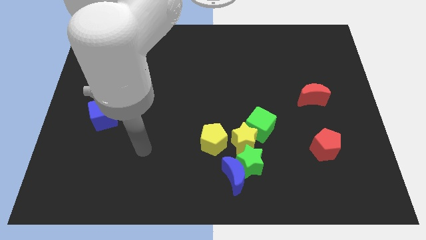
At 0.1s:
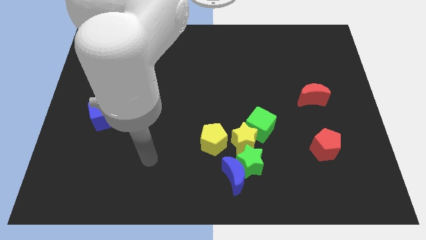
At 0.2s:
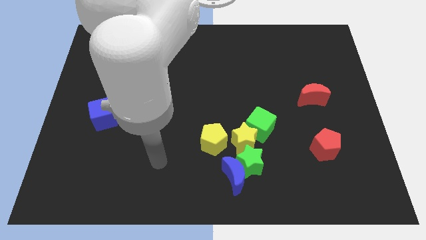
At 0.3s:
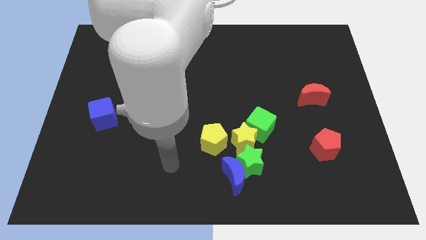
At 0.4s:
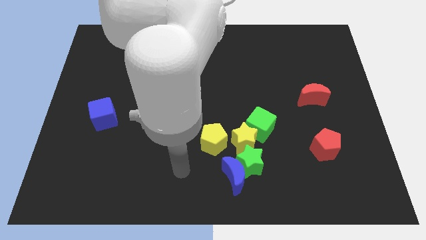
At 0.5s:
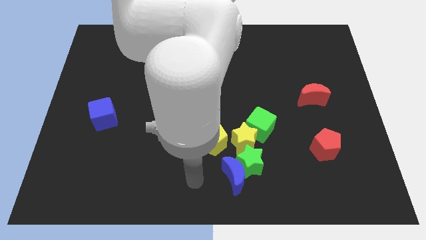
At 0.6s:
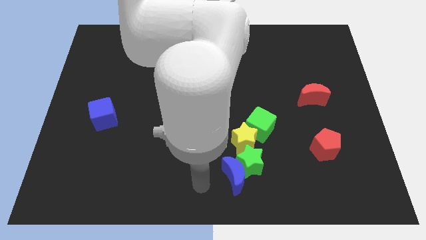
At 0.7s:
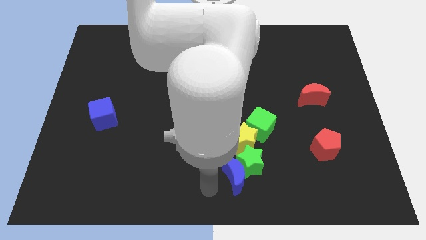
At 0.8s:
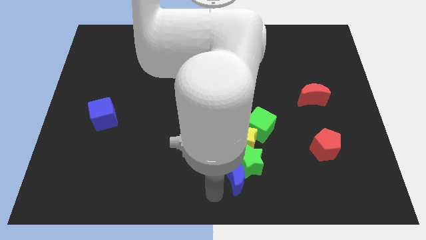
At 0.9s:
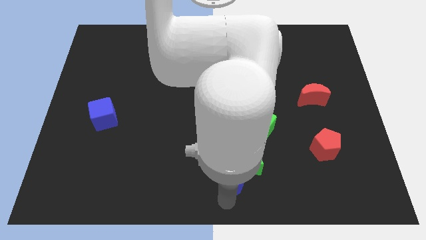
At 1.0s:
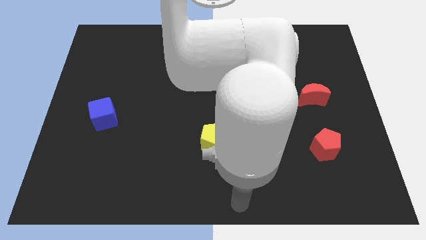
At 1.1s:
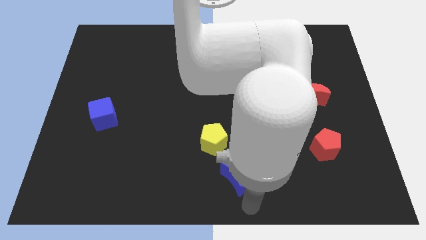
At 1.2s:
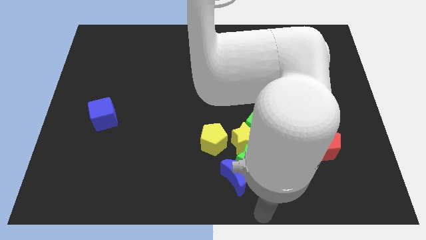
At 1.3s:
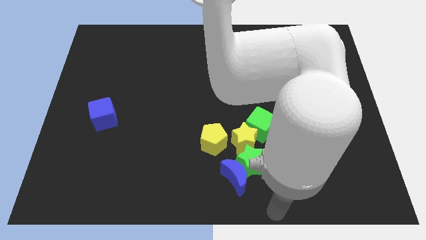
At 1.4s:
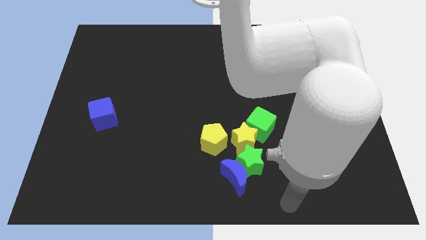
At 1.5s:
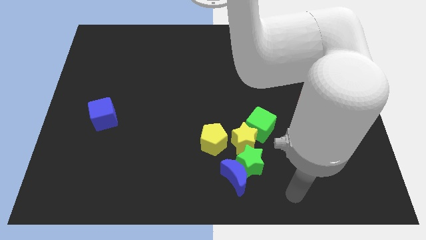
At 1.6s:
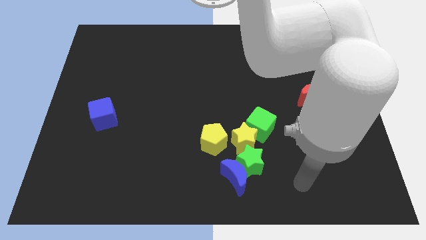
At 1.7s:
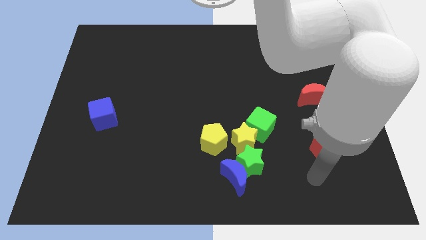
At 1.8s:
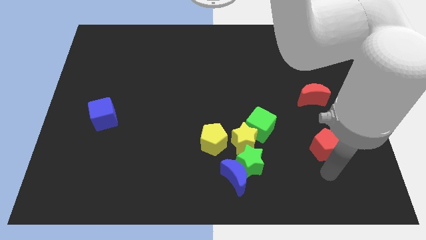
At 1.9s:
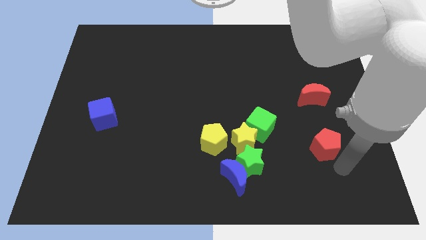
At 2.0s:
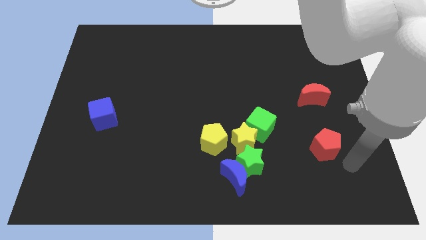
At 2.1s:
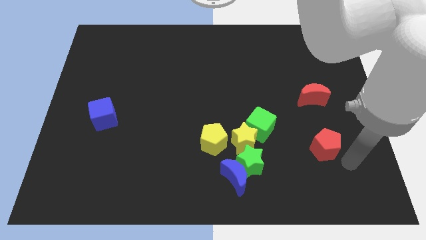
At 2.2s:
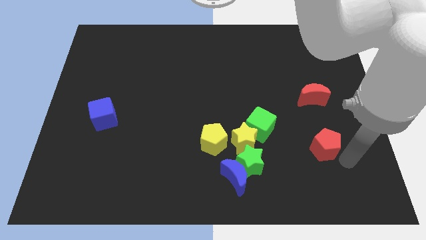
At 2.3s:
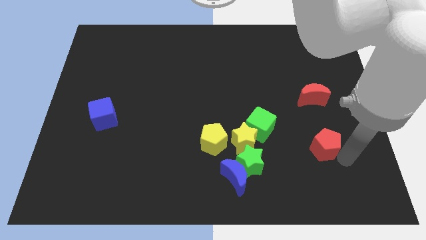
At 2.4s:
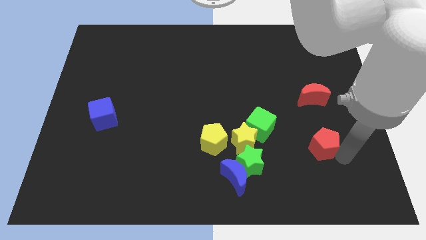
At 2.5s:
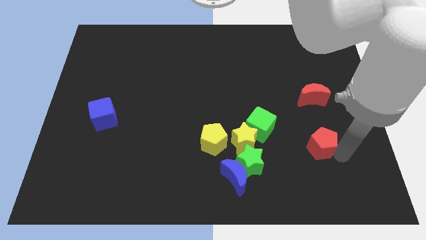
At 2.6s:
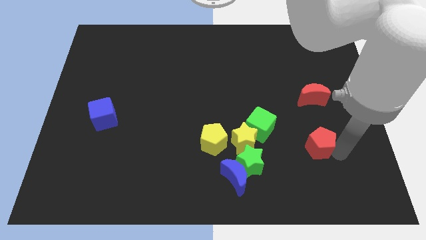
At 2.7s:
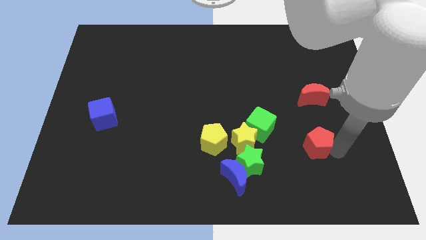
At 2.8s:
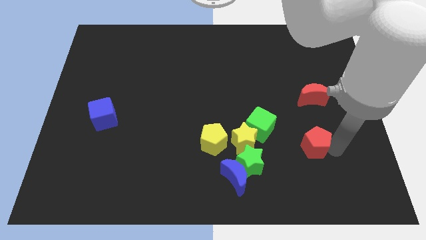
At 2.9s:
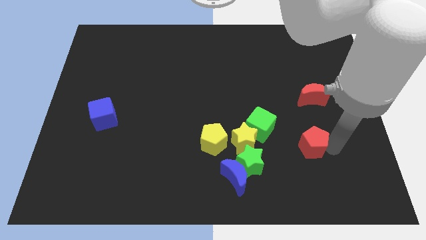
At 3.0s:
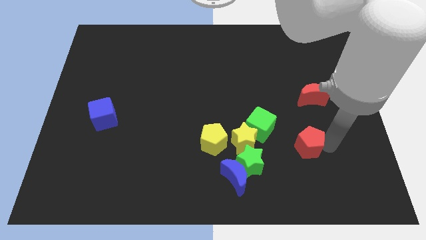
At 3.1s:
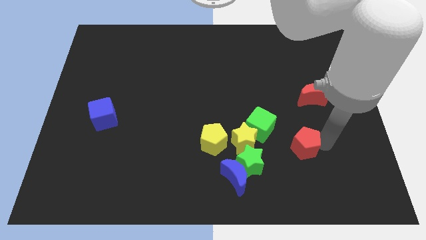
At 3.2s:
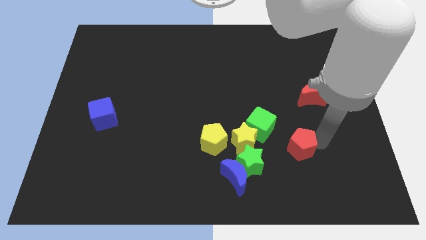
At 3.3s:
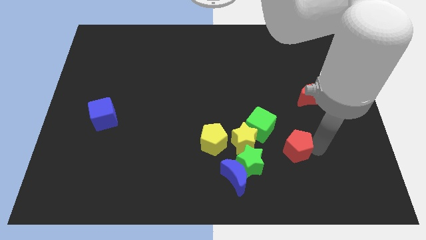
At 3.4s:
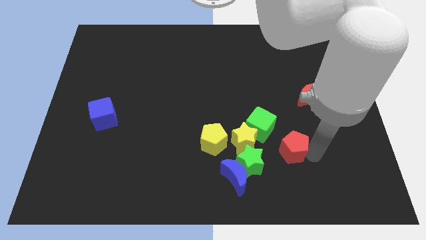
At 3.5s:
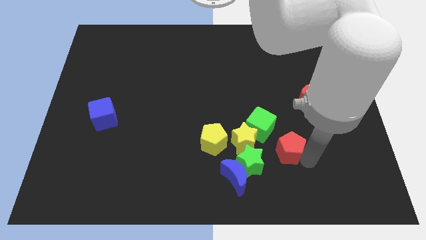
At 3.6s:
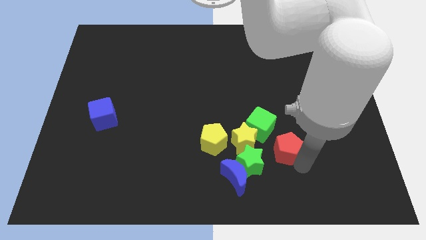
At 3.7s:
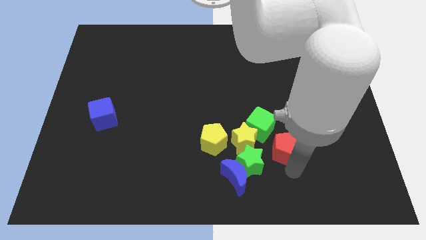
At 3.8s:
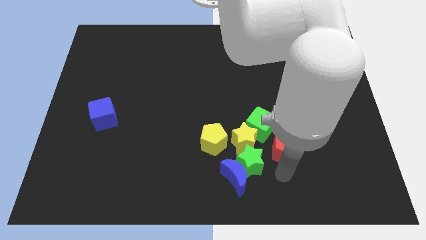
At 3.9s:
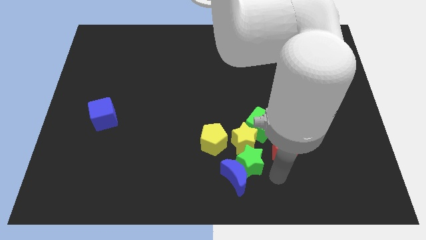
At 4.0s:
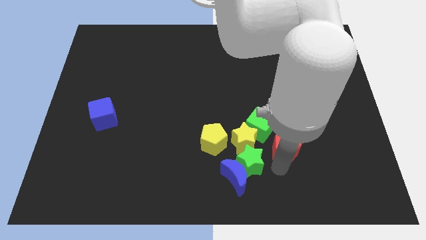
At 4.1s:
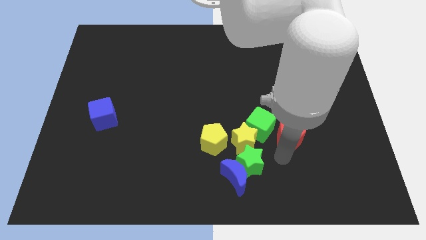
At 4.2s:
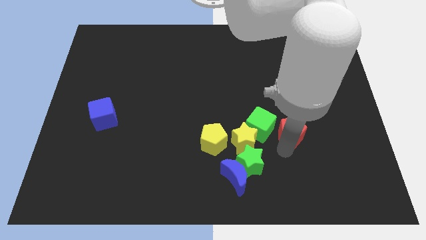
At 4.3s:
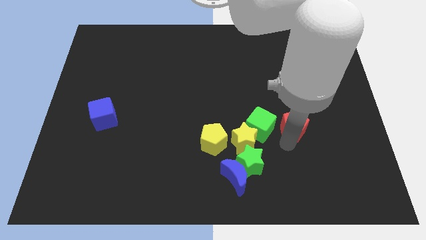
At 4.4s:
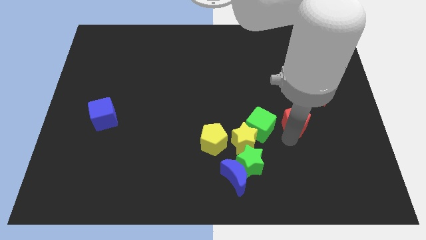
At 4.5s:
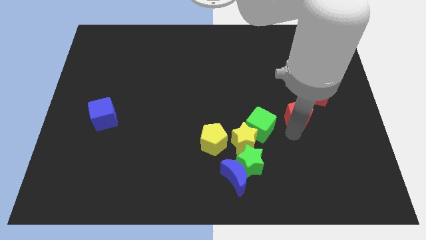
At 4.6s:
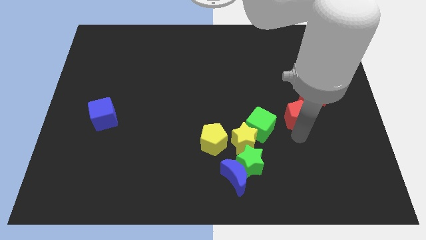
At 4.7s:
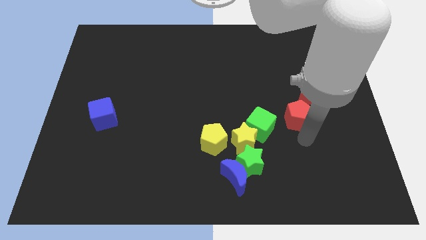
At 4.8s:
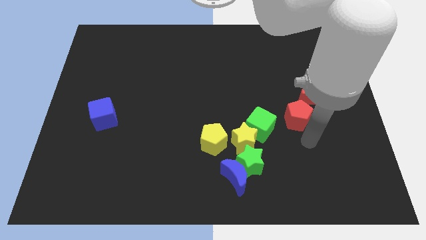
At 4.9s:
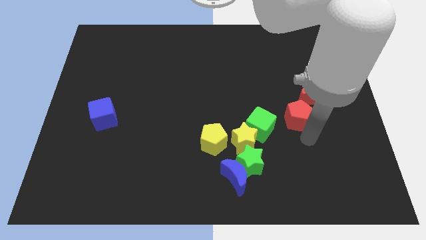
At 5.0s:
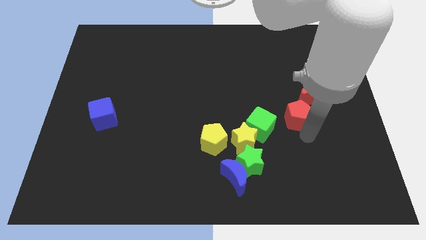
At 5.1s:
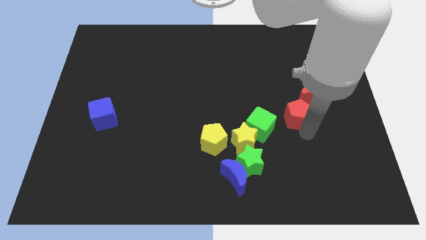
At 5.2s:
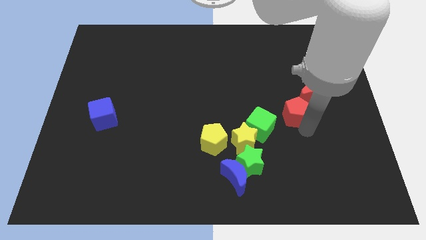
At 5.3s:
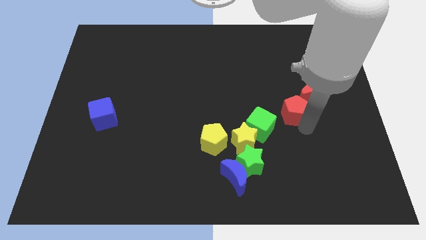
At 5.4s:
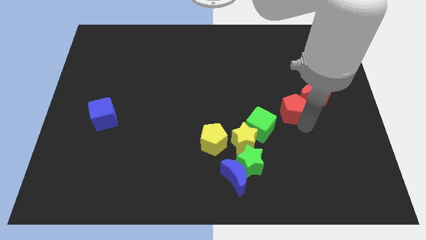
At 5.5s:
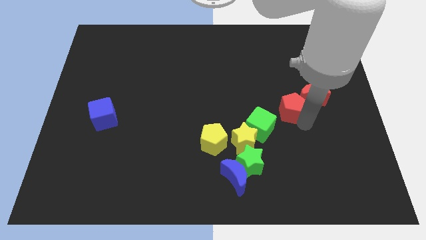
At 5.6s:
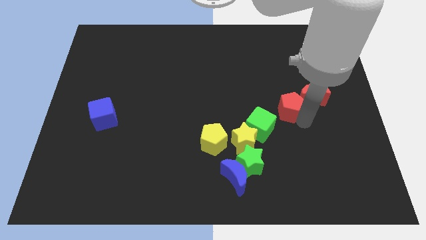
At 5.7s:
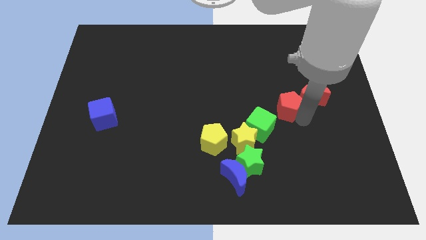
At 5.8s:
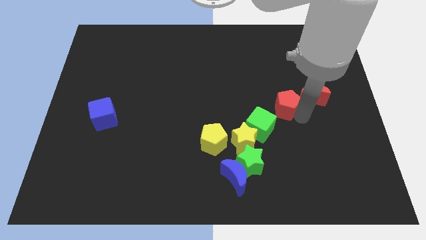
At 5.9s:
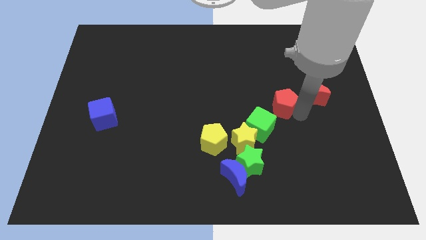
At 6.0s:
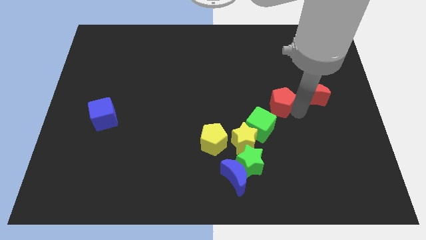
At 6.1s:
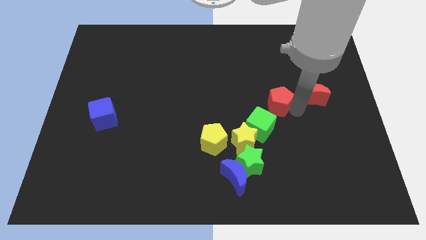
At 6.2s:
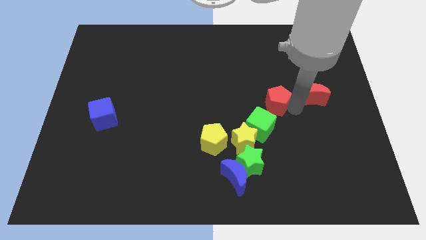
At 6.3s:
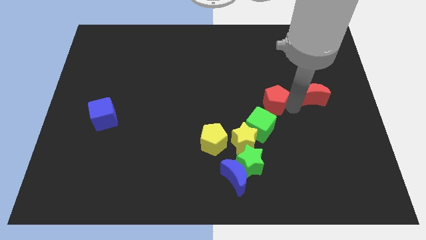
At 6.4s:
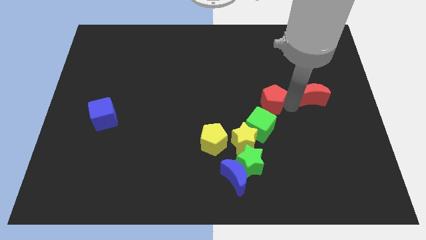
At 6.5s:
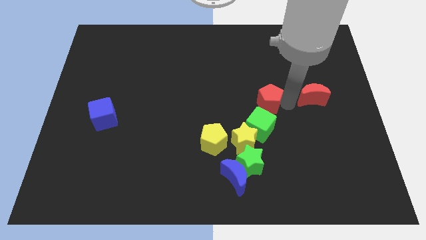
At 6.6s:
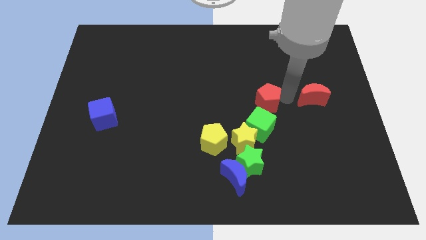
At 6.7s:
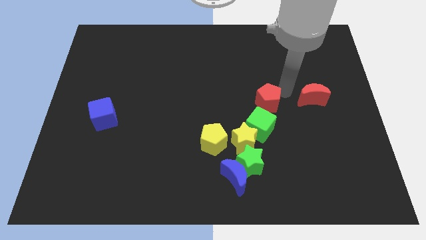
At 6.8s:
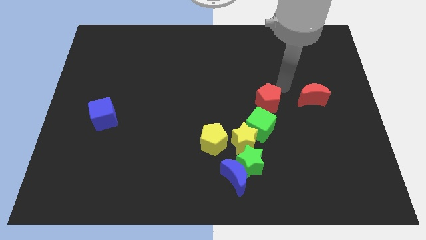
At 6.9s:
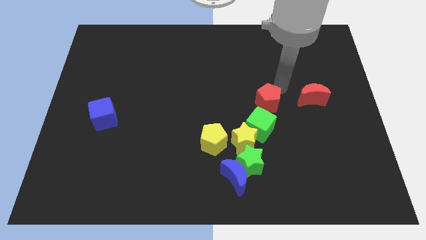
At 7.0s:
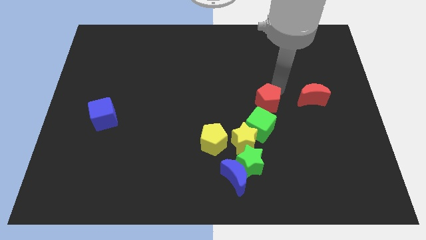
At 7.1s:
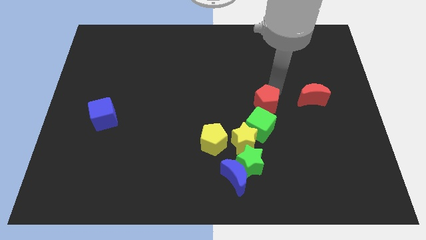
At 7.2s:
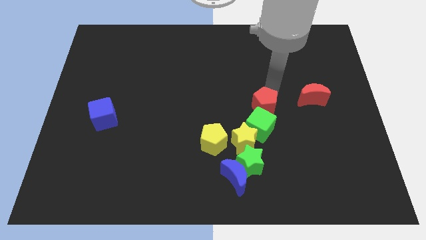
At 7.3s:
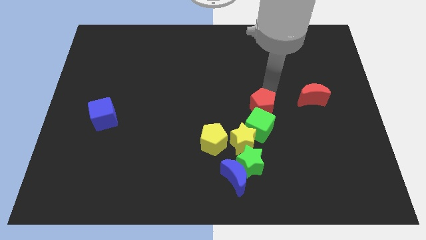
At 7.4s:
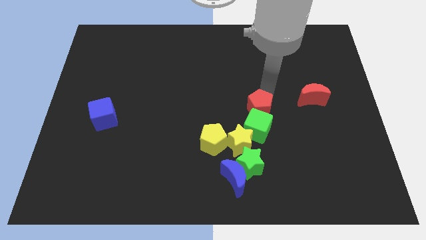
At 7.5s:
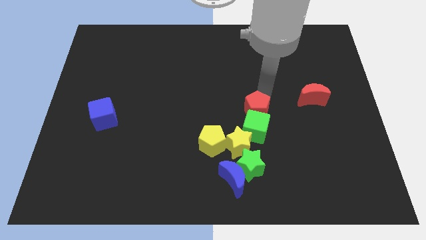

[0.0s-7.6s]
slide the red pentagon to the top of the green star

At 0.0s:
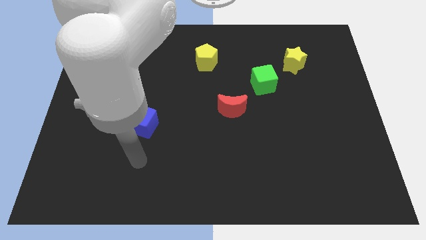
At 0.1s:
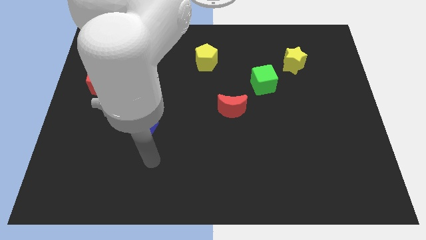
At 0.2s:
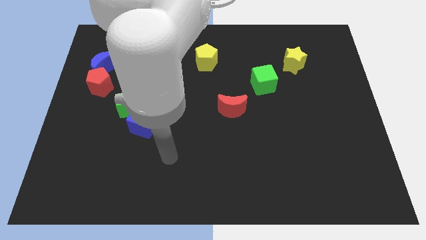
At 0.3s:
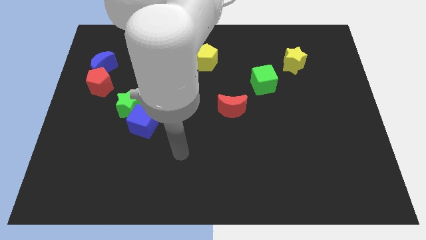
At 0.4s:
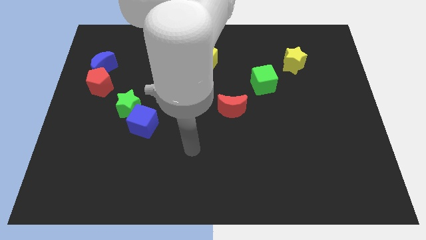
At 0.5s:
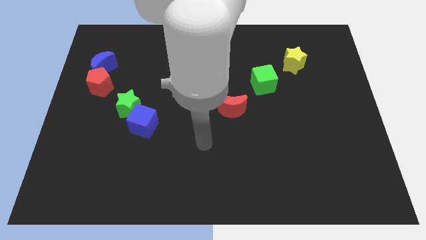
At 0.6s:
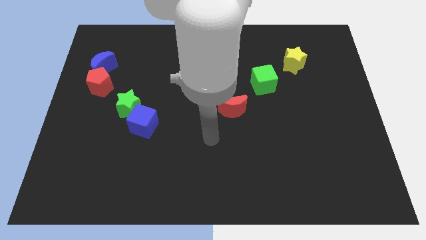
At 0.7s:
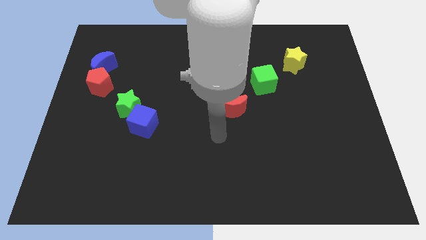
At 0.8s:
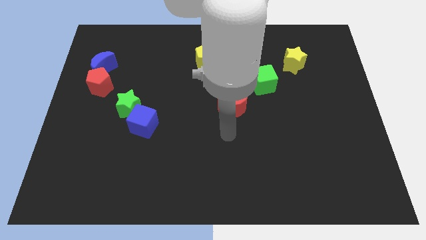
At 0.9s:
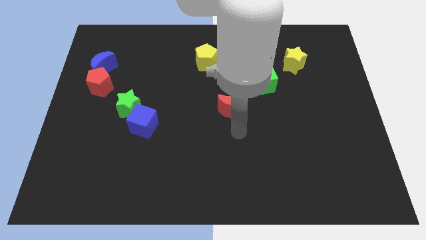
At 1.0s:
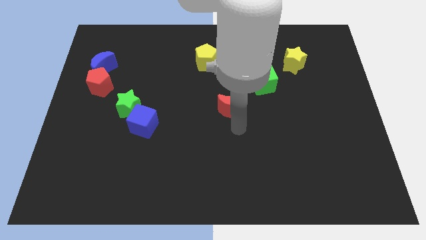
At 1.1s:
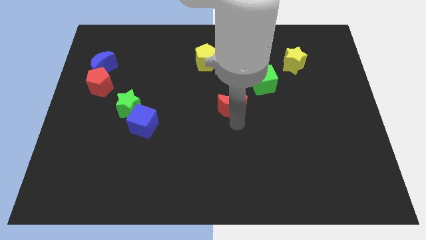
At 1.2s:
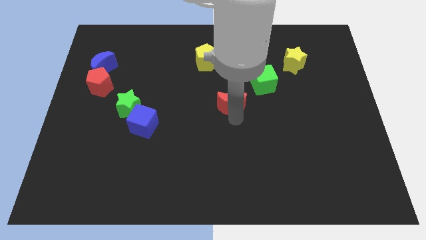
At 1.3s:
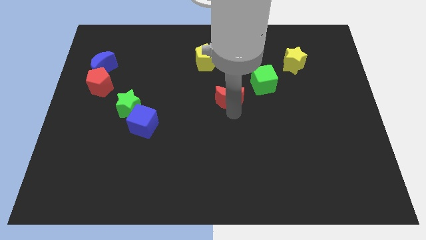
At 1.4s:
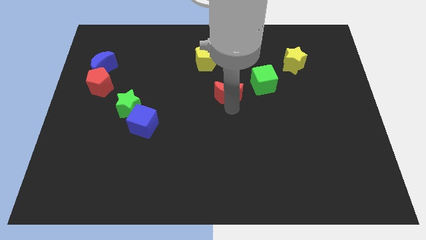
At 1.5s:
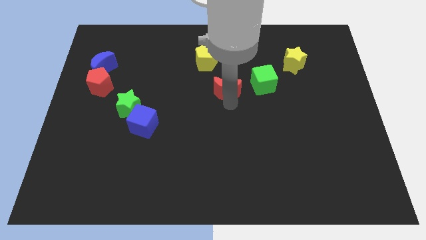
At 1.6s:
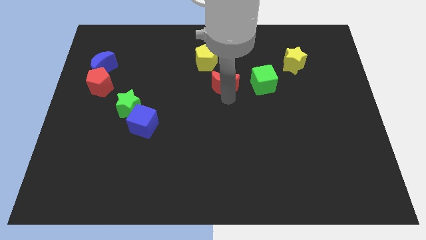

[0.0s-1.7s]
slide the red moon to the bottom right of the yellow pentagon
